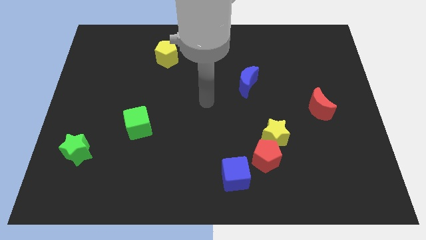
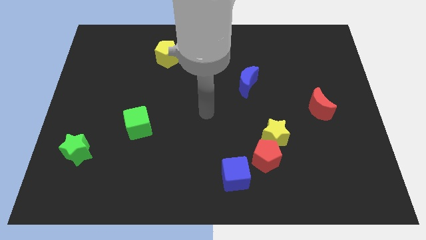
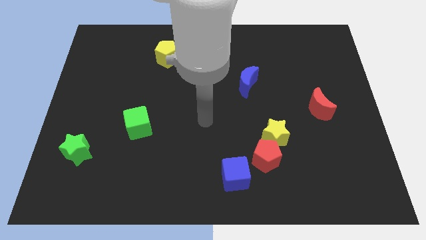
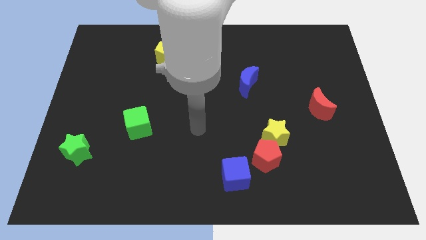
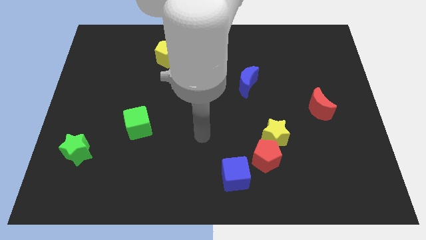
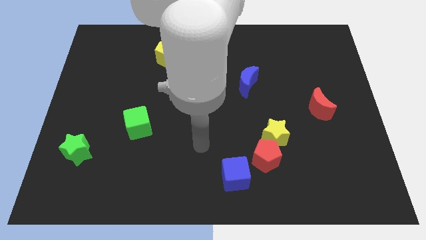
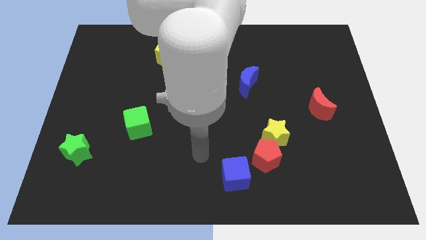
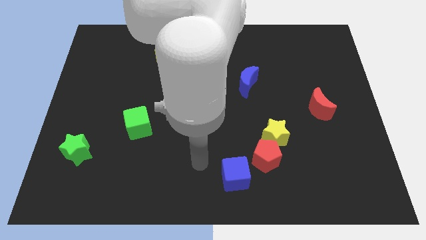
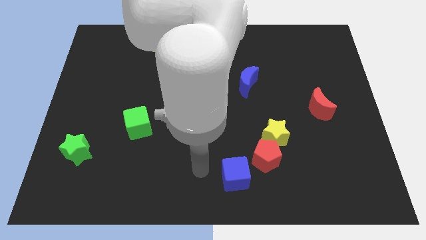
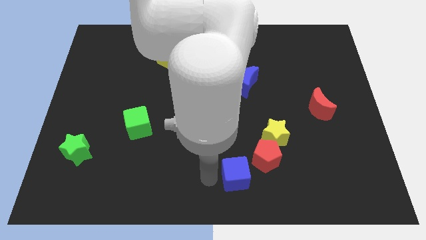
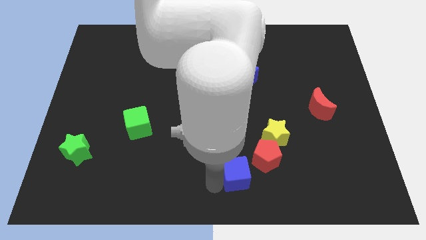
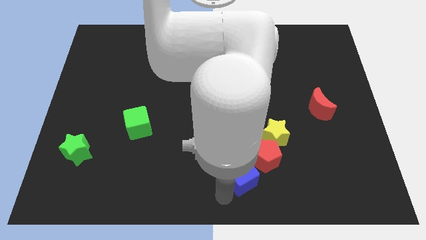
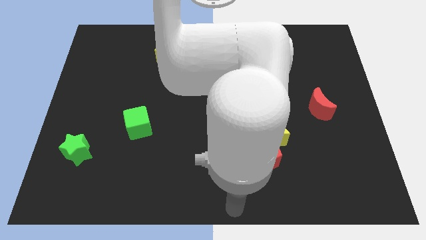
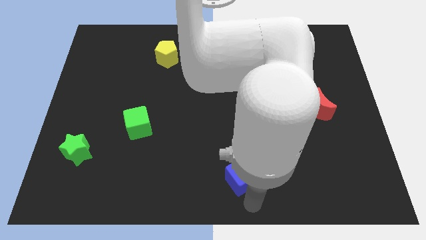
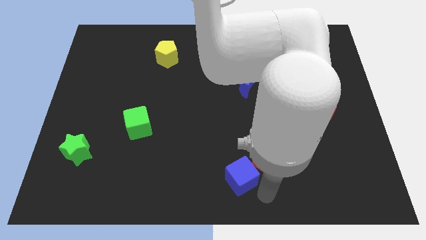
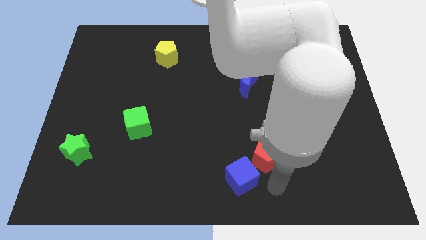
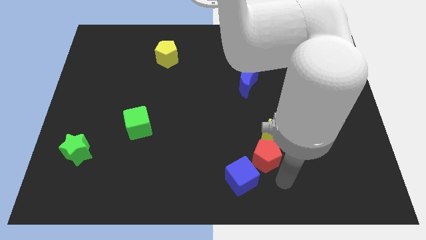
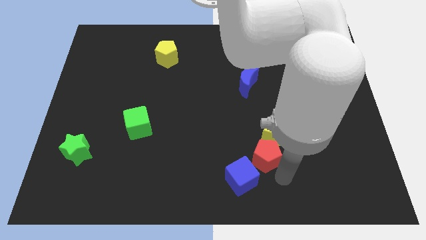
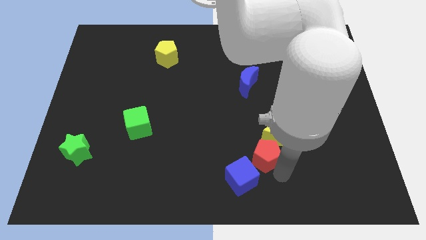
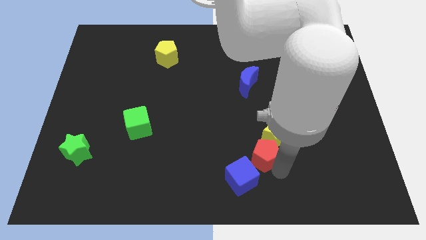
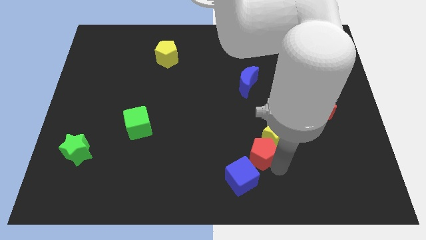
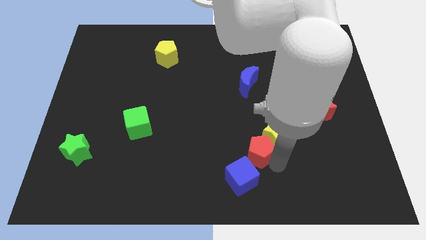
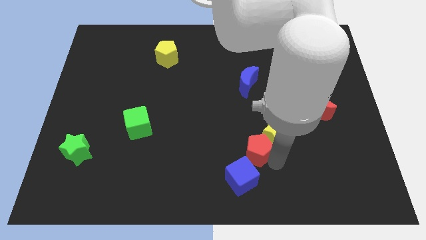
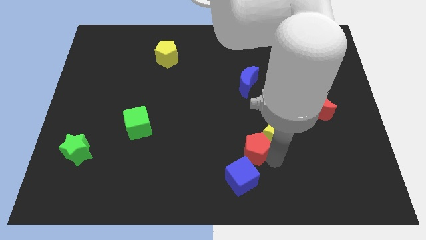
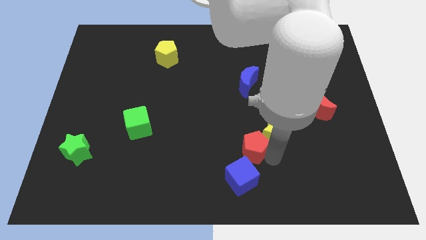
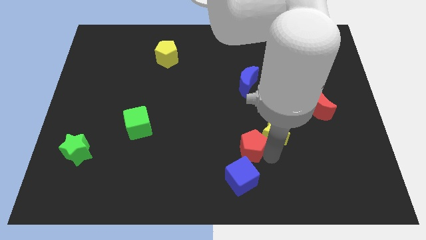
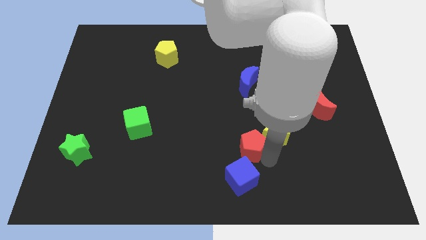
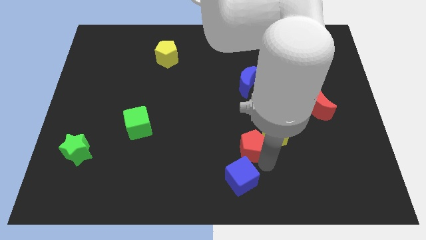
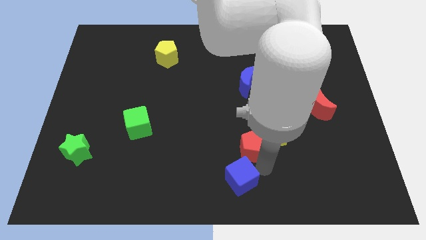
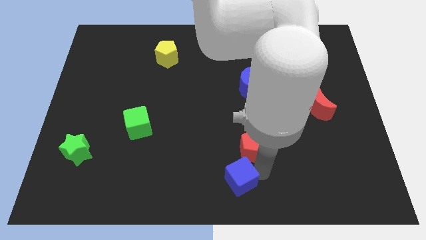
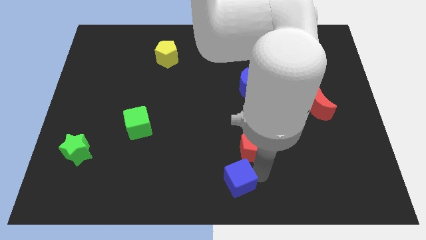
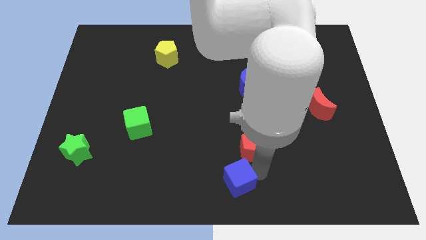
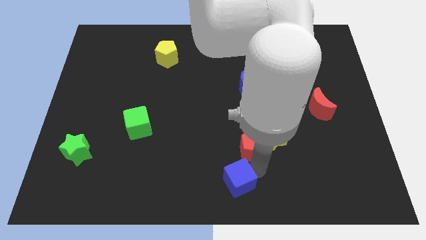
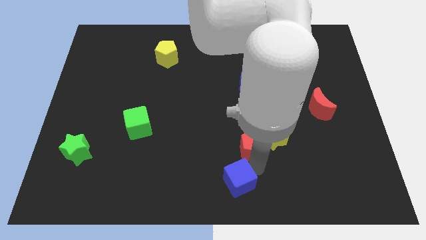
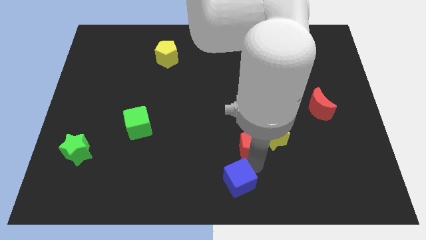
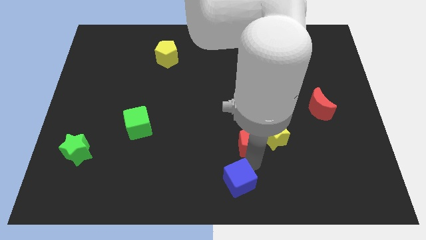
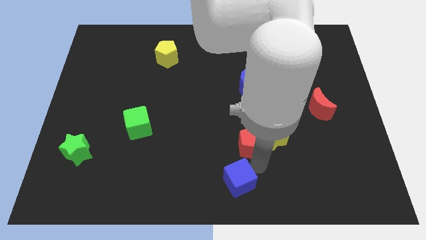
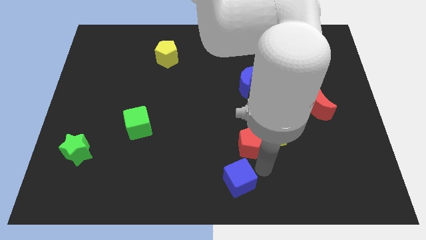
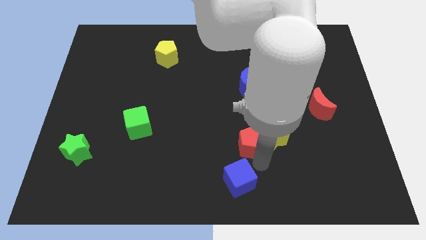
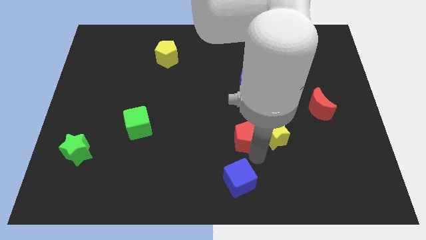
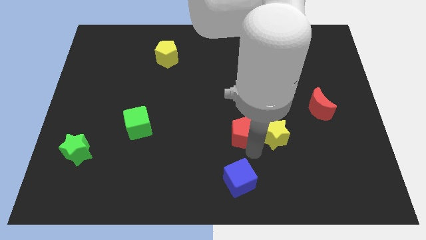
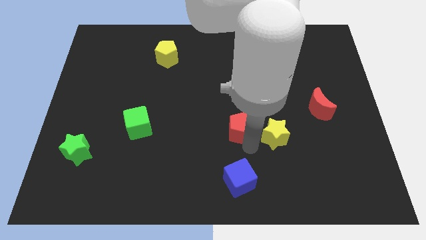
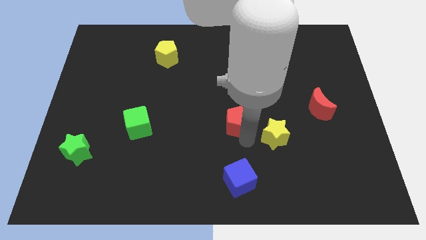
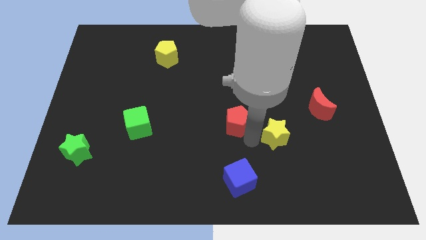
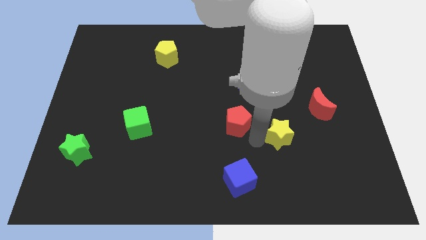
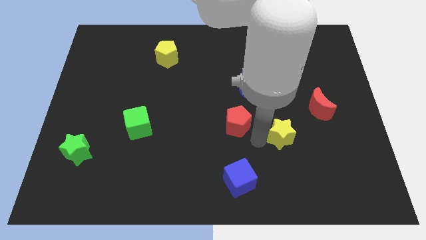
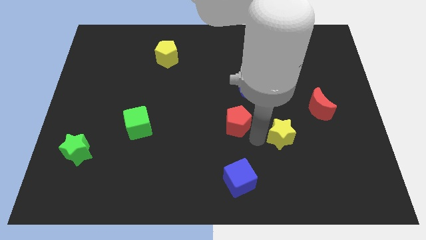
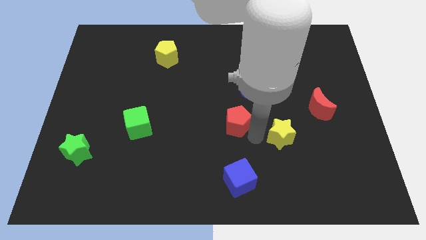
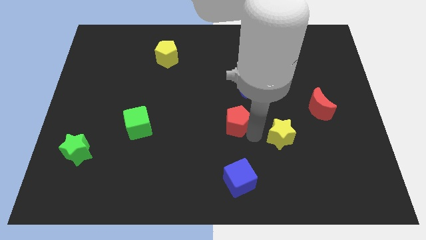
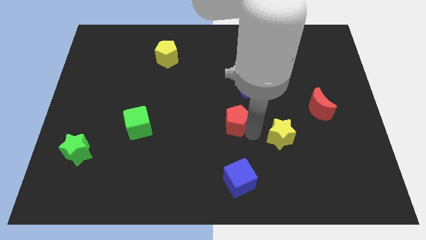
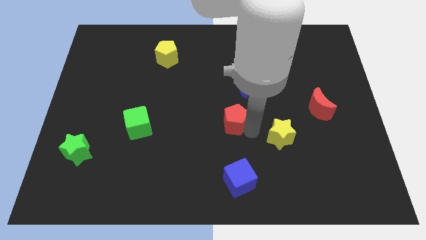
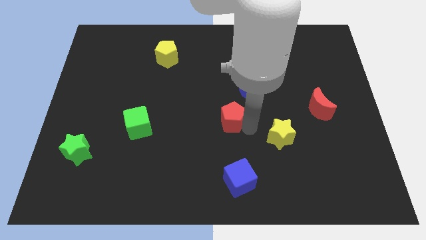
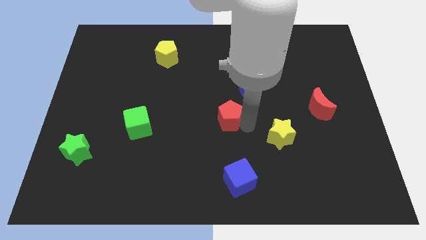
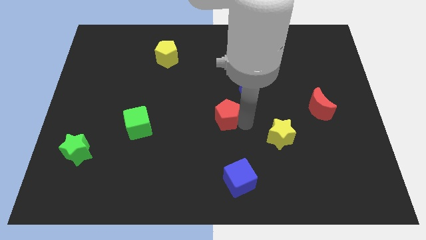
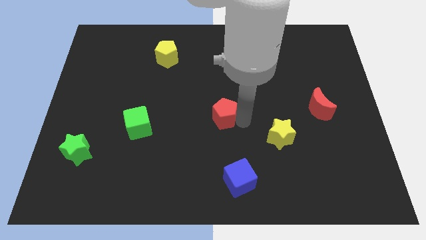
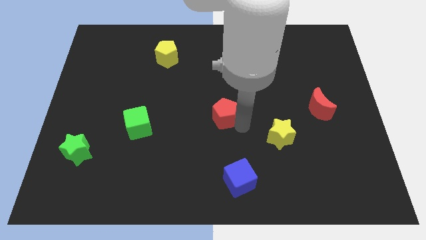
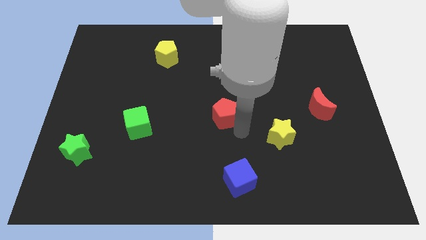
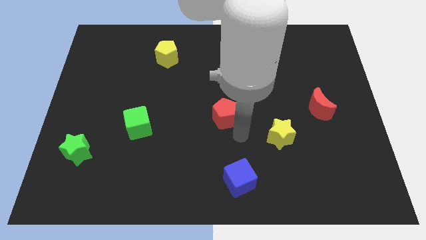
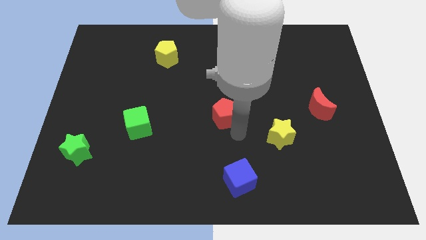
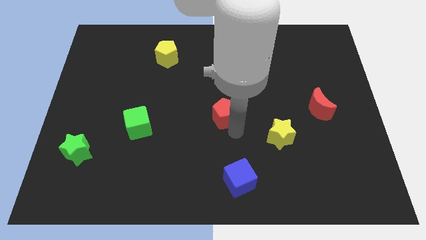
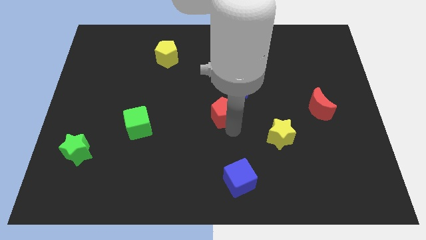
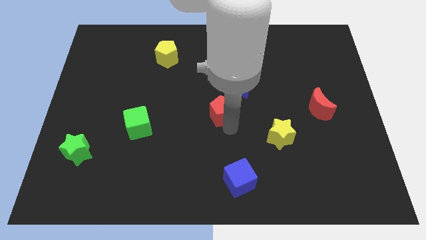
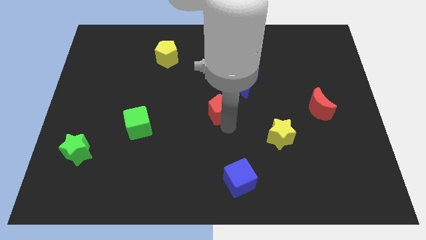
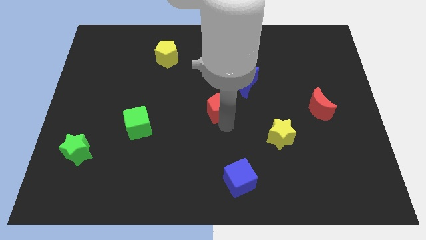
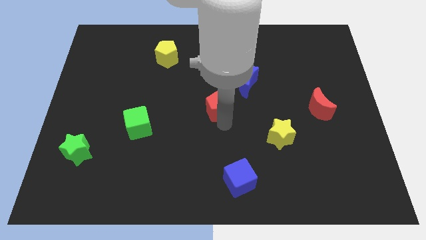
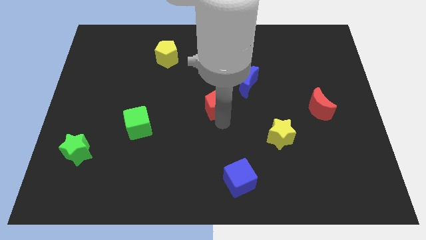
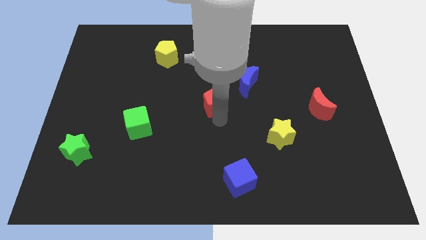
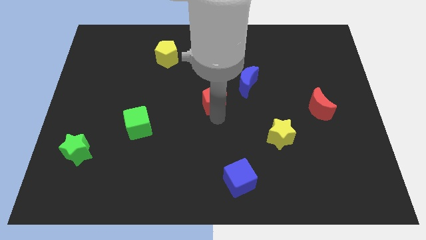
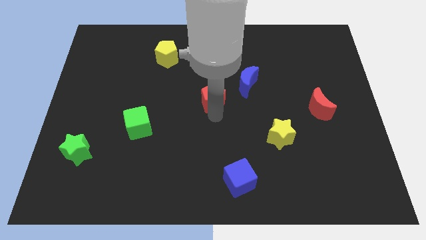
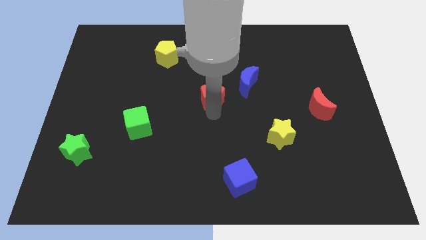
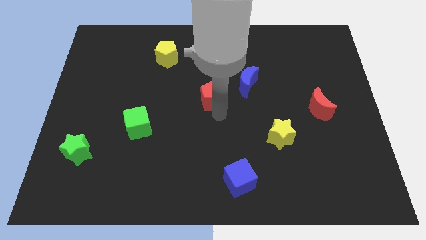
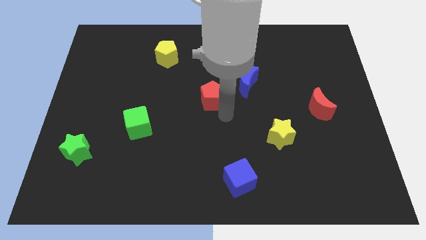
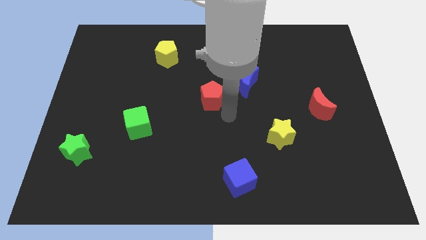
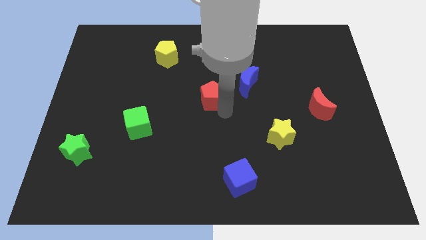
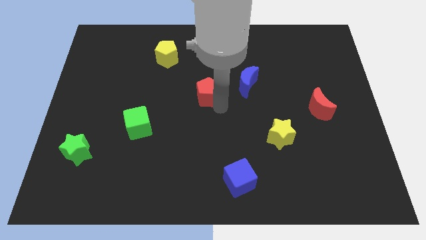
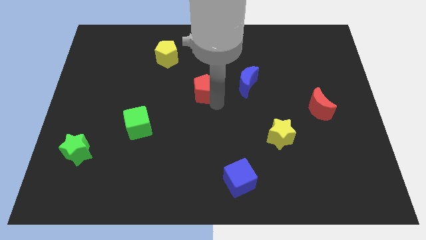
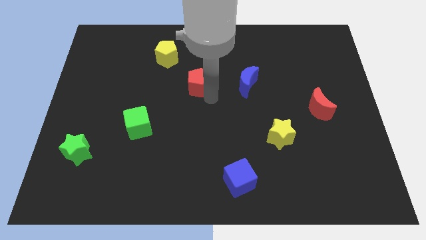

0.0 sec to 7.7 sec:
move the red pentagon to the bottom right side of the yellow pentagon

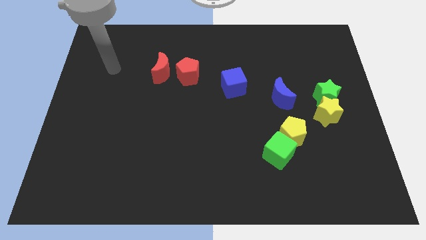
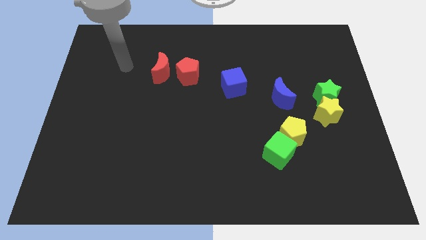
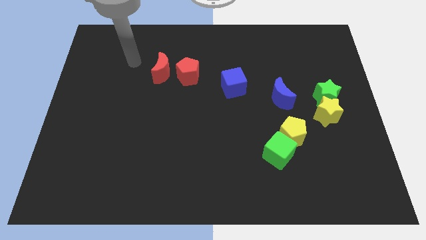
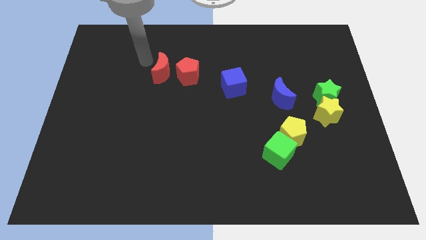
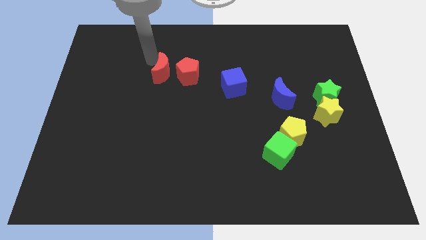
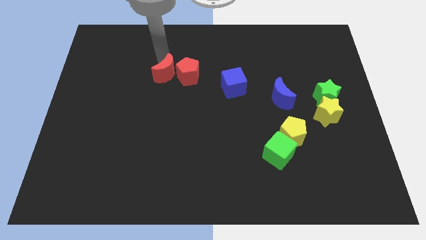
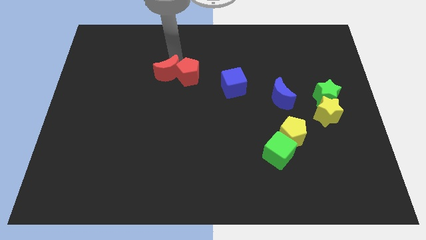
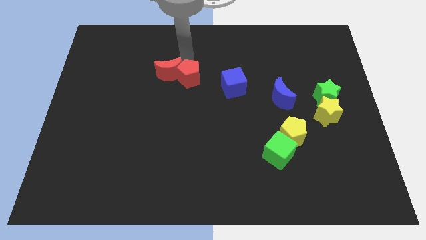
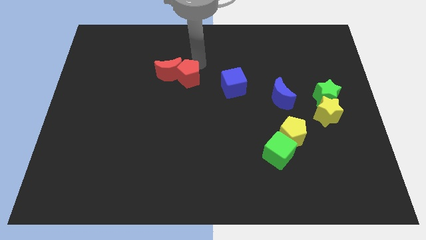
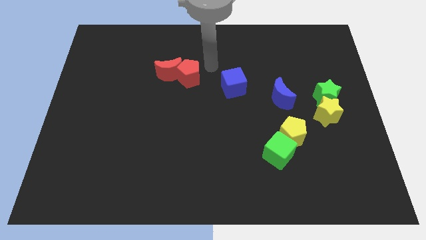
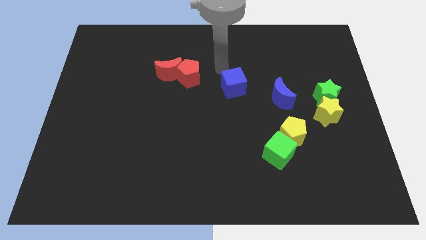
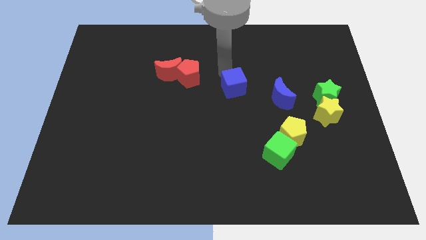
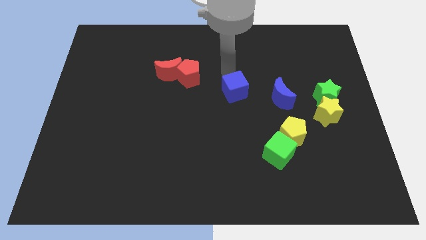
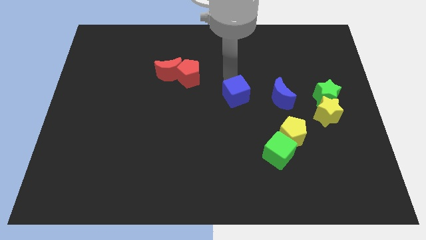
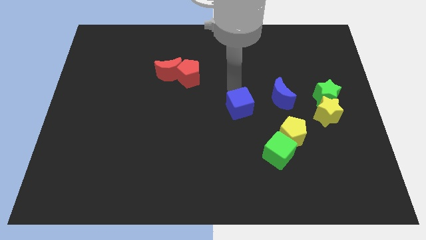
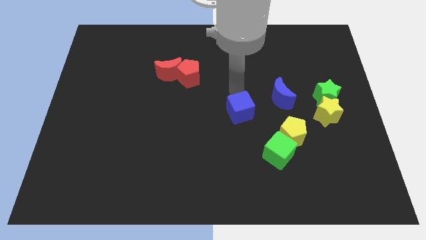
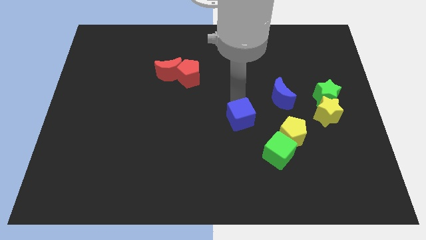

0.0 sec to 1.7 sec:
move the blue cube to the top left of the green cube
